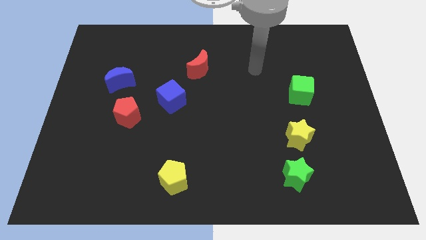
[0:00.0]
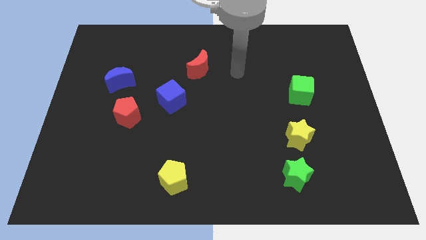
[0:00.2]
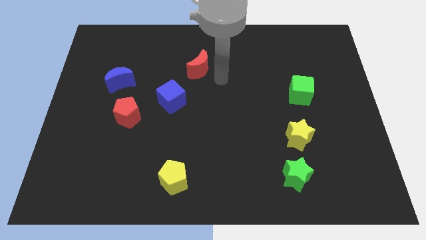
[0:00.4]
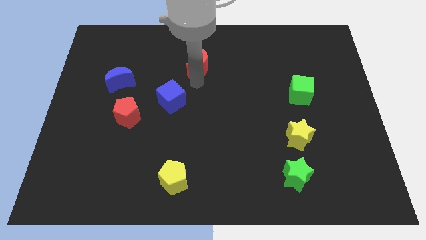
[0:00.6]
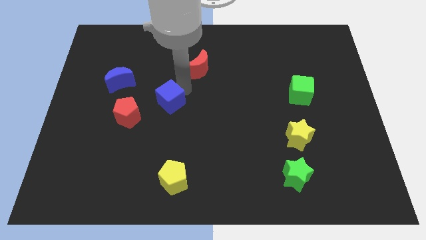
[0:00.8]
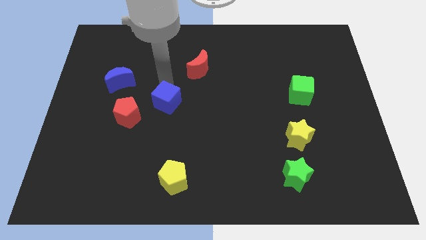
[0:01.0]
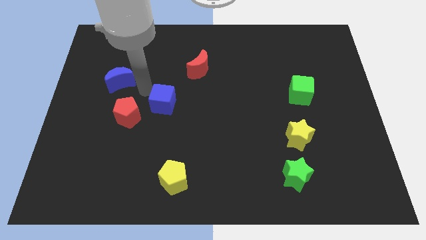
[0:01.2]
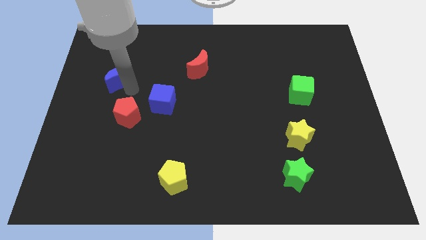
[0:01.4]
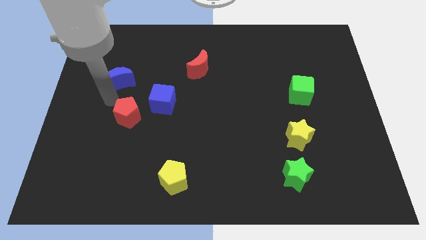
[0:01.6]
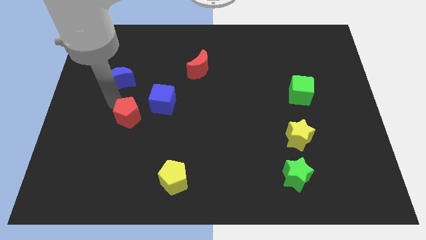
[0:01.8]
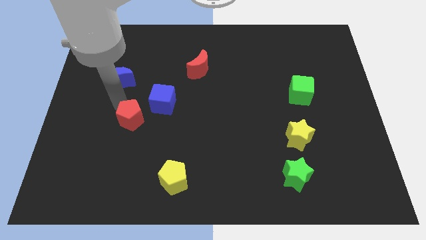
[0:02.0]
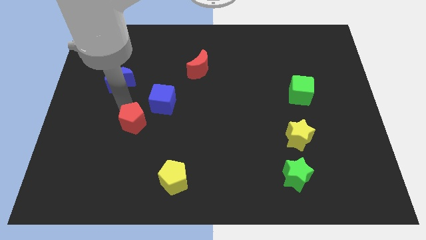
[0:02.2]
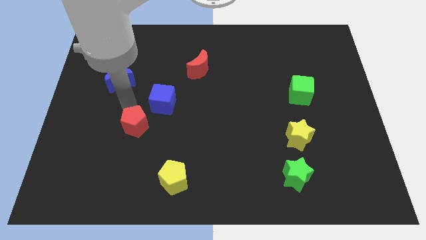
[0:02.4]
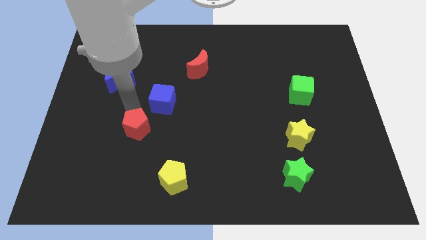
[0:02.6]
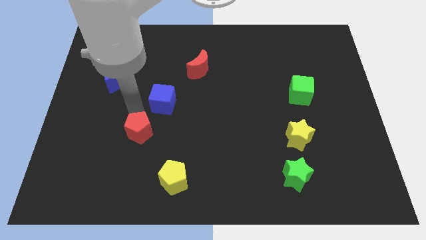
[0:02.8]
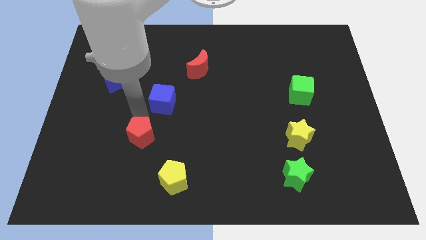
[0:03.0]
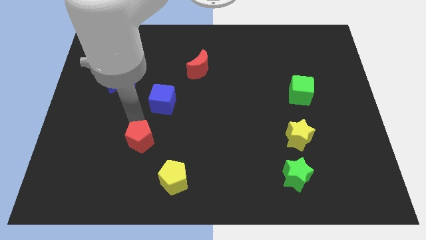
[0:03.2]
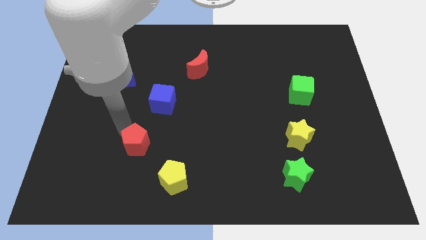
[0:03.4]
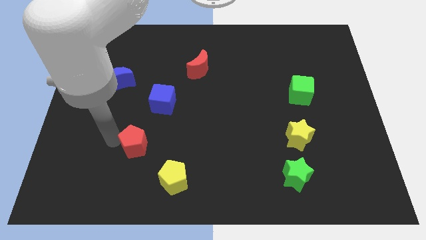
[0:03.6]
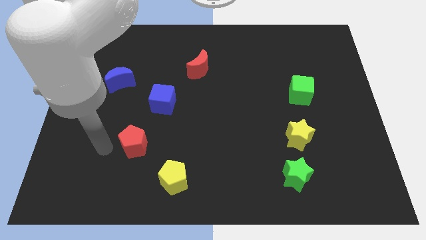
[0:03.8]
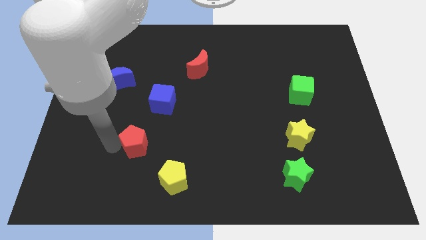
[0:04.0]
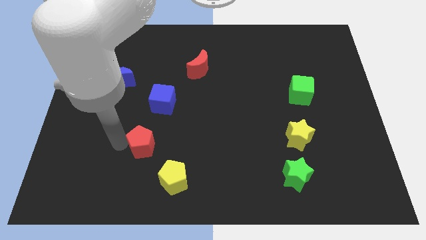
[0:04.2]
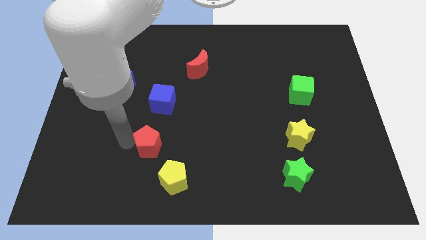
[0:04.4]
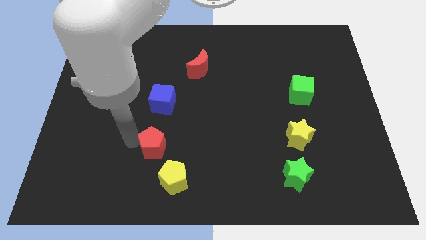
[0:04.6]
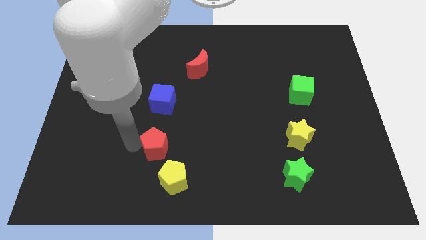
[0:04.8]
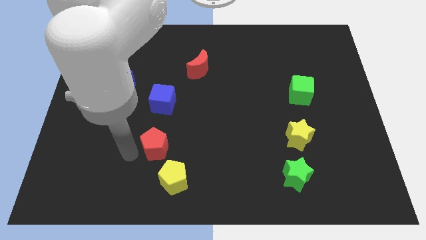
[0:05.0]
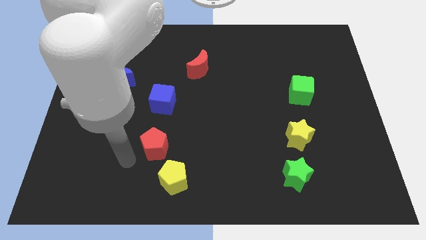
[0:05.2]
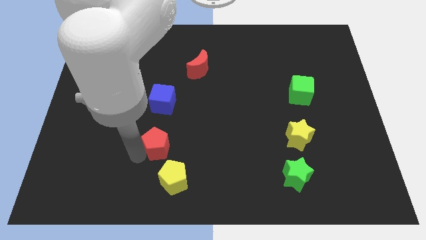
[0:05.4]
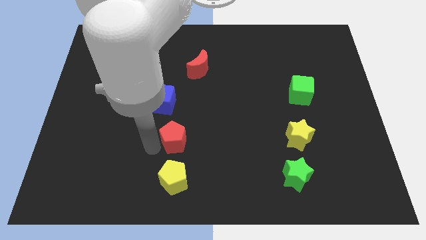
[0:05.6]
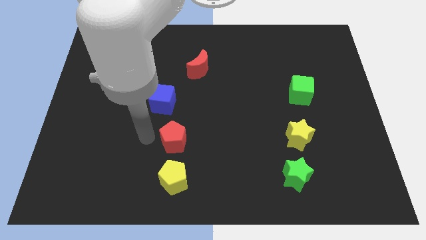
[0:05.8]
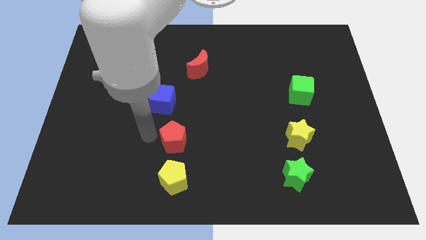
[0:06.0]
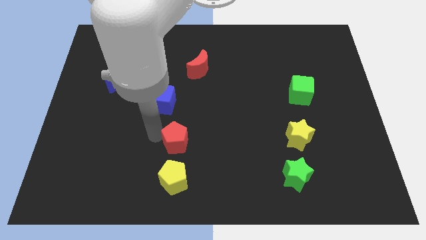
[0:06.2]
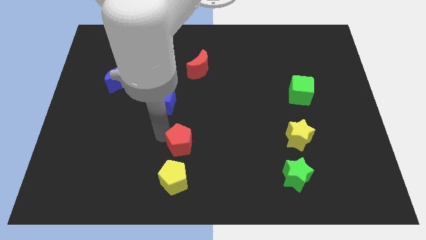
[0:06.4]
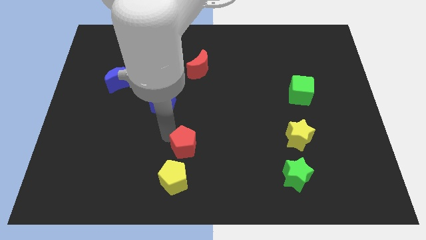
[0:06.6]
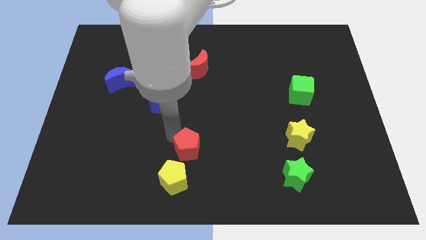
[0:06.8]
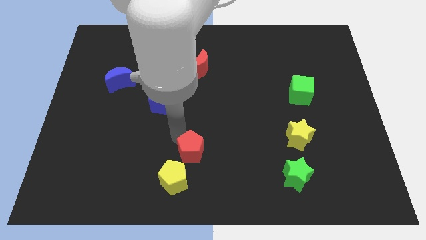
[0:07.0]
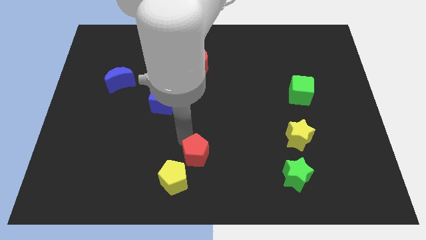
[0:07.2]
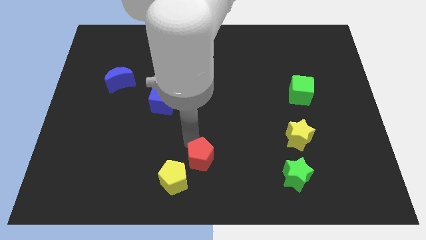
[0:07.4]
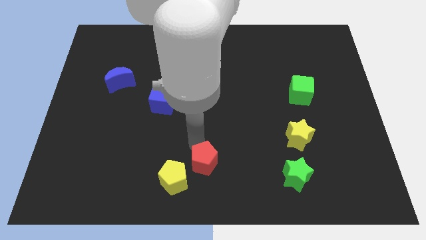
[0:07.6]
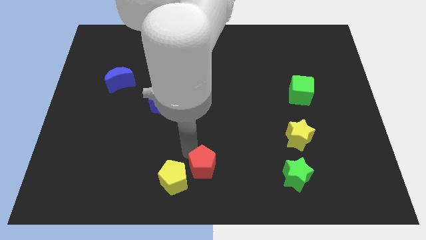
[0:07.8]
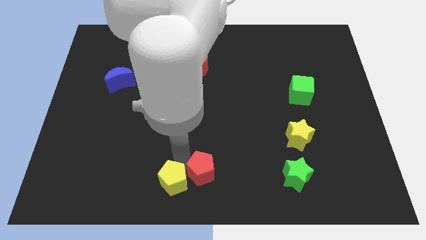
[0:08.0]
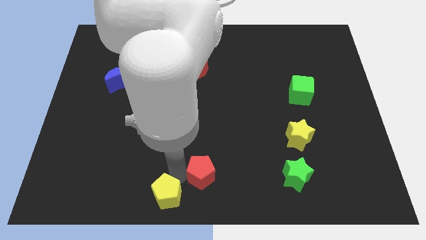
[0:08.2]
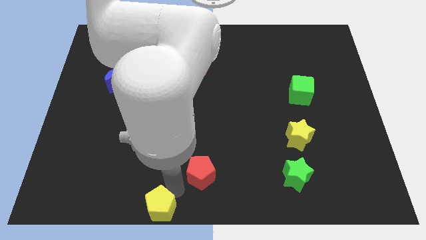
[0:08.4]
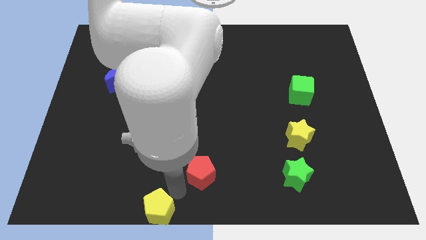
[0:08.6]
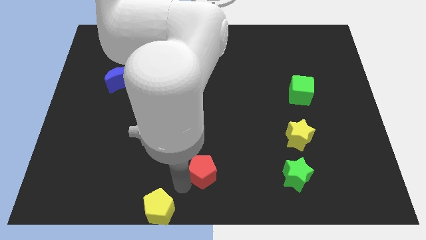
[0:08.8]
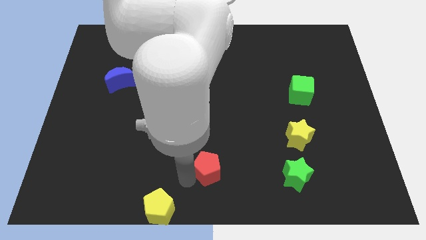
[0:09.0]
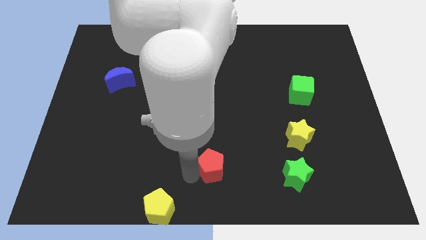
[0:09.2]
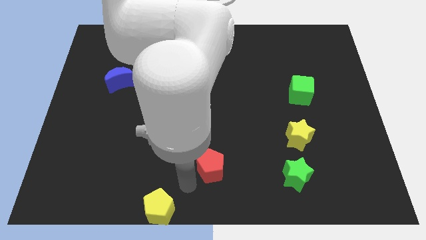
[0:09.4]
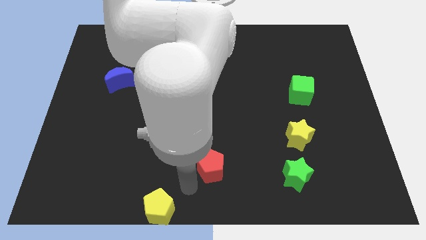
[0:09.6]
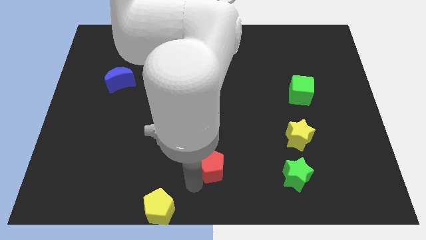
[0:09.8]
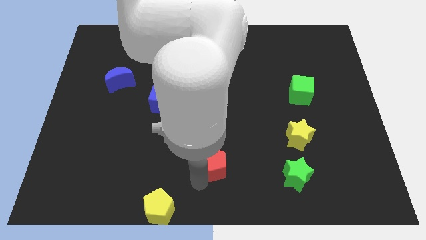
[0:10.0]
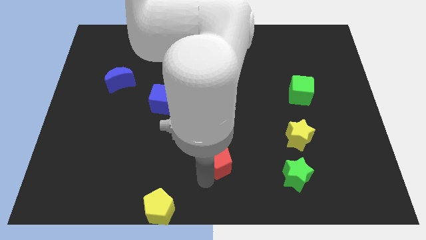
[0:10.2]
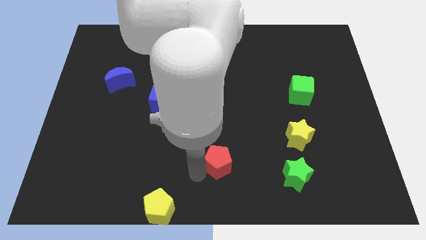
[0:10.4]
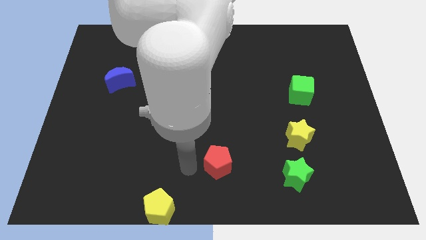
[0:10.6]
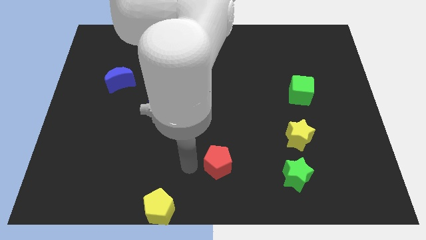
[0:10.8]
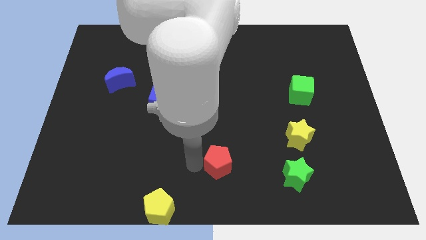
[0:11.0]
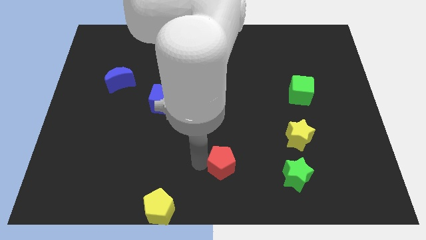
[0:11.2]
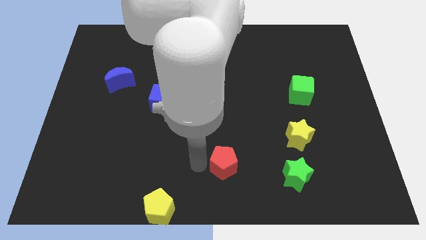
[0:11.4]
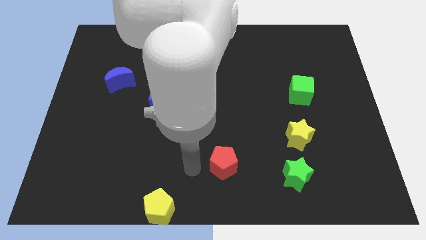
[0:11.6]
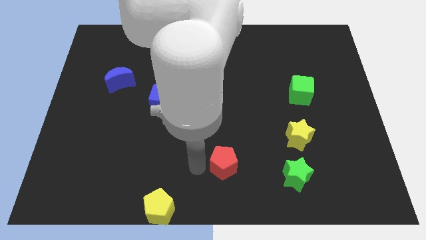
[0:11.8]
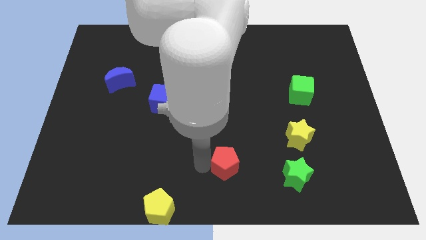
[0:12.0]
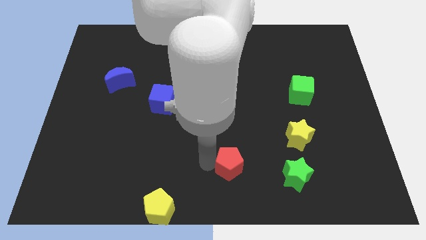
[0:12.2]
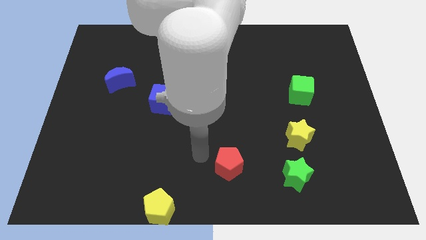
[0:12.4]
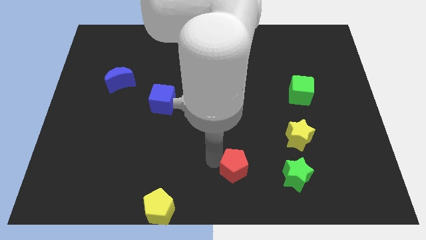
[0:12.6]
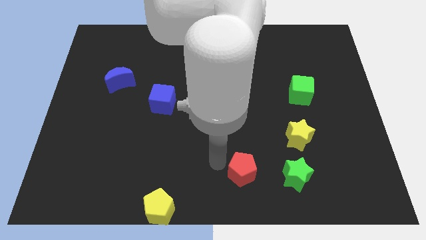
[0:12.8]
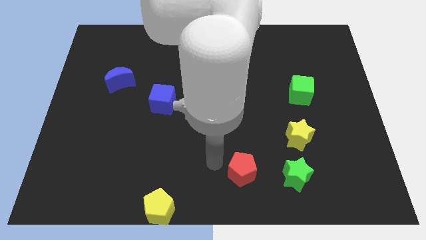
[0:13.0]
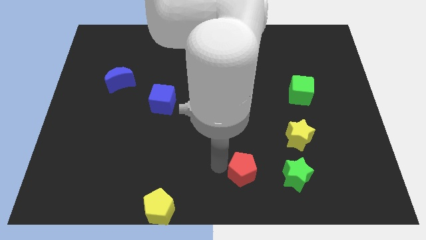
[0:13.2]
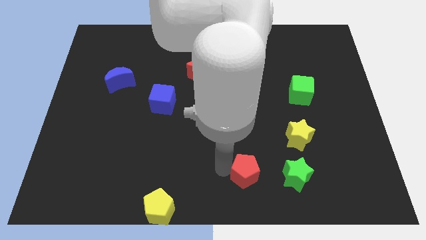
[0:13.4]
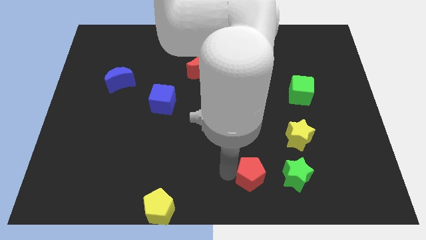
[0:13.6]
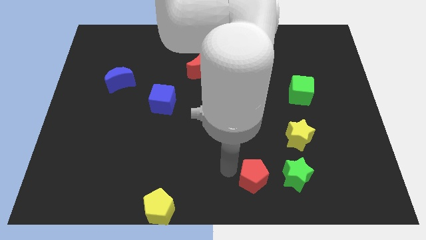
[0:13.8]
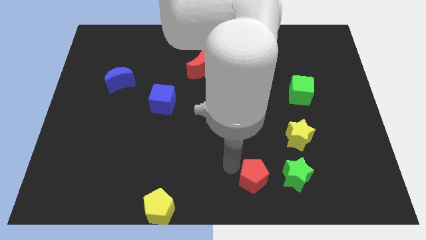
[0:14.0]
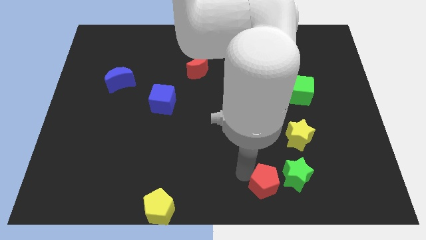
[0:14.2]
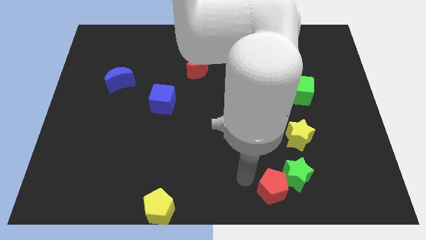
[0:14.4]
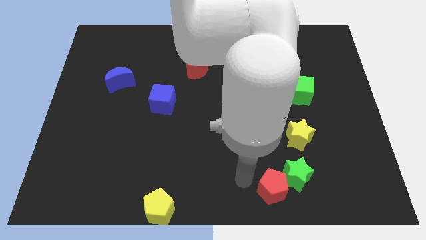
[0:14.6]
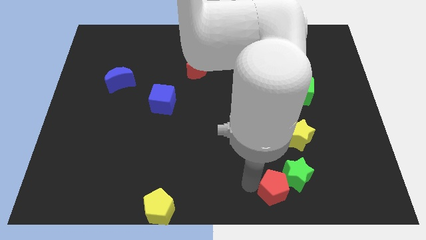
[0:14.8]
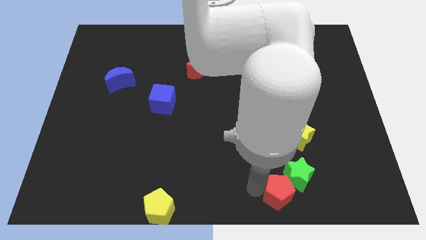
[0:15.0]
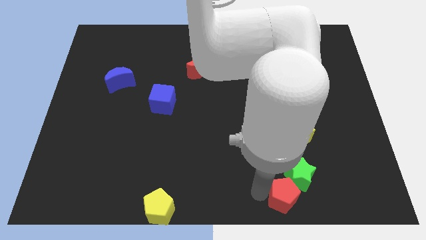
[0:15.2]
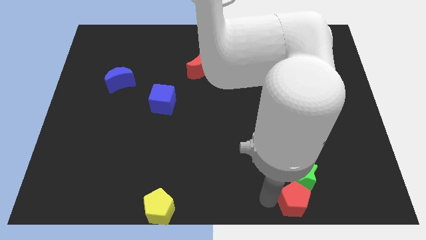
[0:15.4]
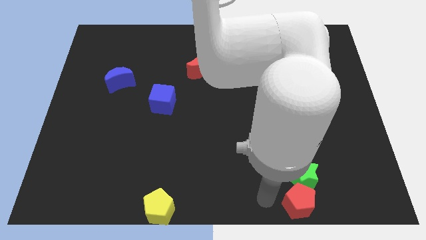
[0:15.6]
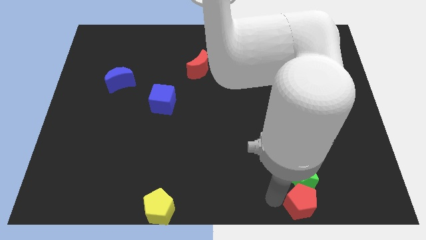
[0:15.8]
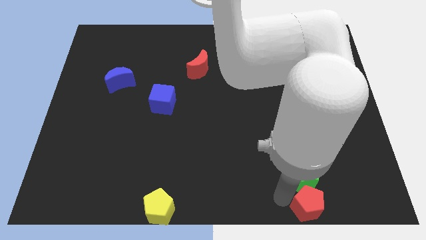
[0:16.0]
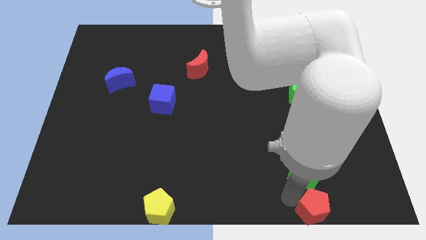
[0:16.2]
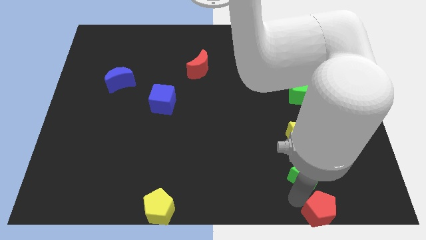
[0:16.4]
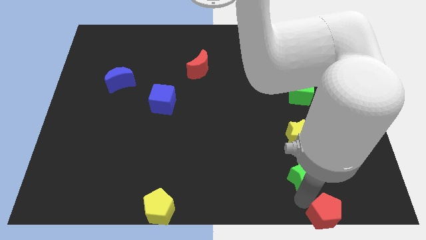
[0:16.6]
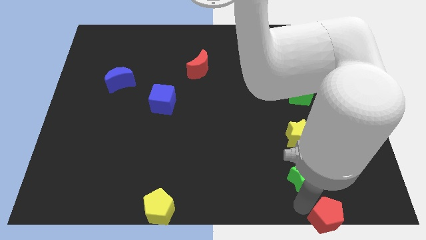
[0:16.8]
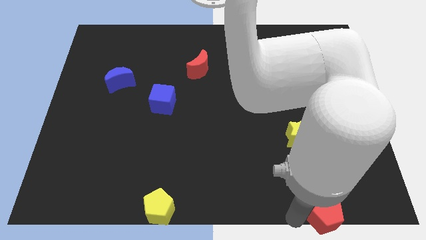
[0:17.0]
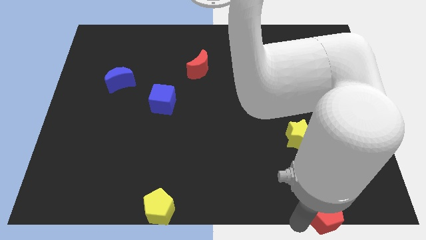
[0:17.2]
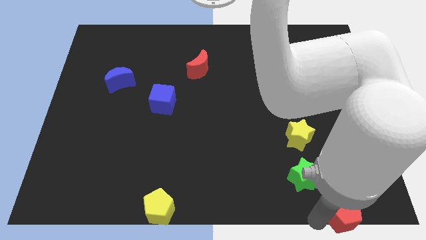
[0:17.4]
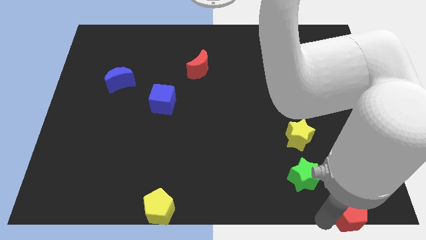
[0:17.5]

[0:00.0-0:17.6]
put the red pentagon to the lower right corner
